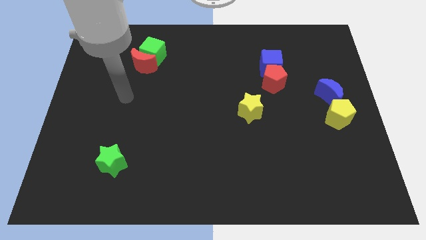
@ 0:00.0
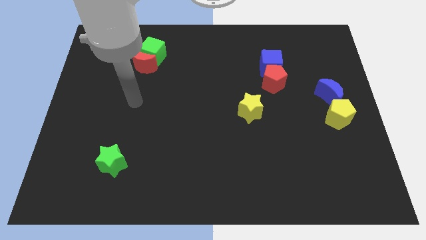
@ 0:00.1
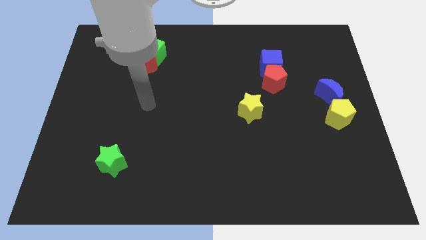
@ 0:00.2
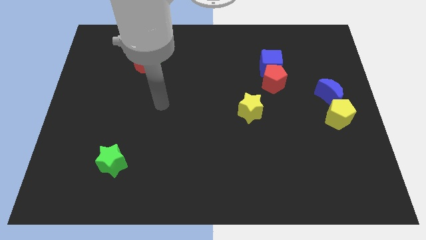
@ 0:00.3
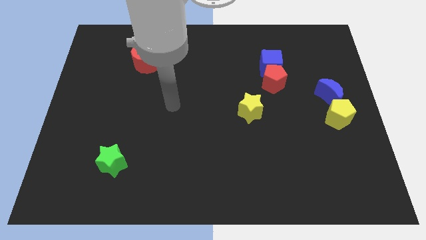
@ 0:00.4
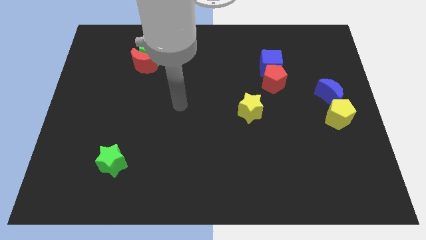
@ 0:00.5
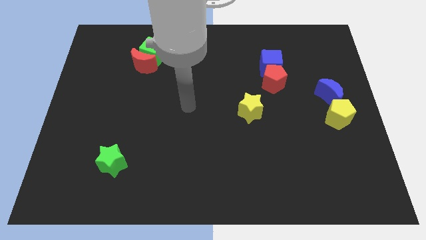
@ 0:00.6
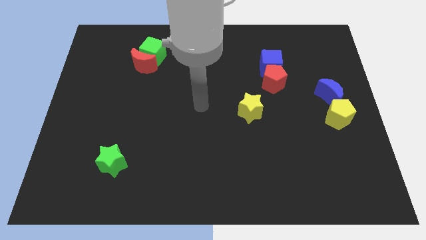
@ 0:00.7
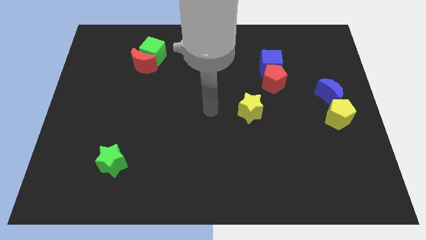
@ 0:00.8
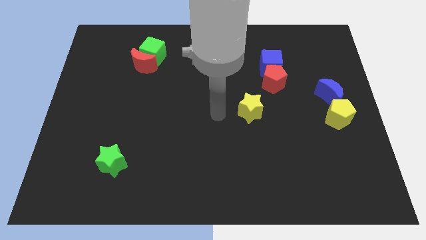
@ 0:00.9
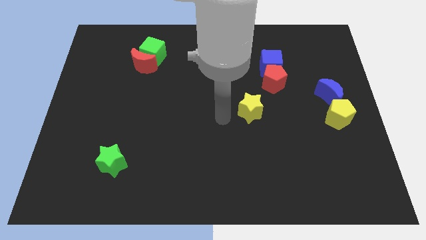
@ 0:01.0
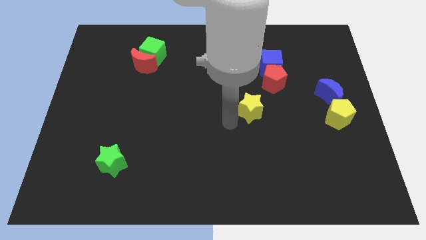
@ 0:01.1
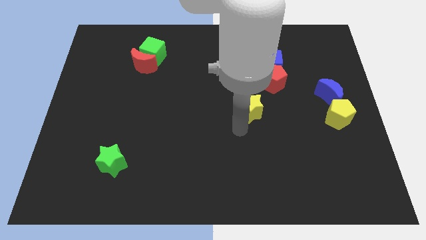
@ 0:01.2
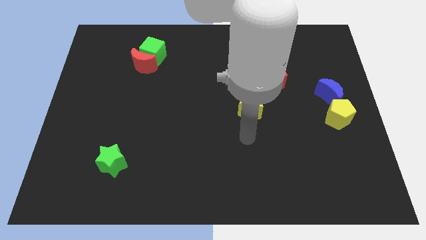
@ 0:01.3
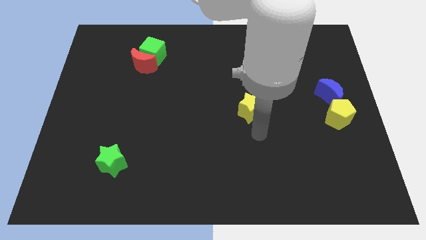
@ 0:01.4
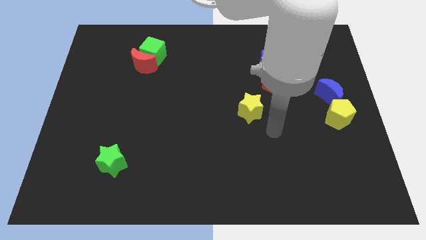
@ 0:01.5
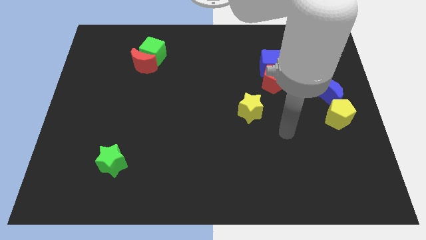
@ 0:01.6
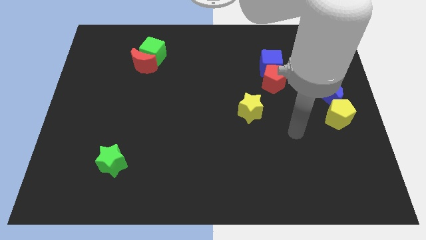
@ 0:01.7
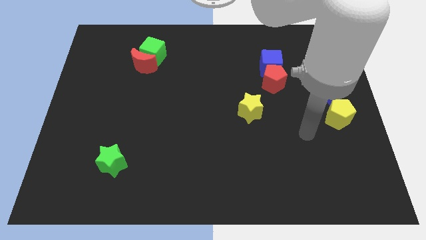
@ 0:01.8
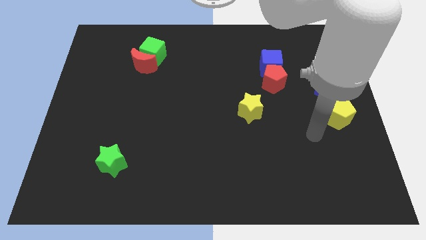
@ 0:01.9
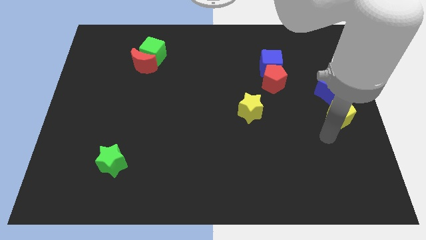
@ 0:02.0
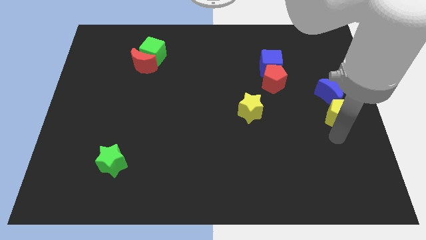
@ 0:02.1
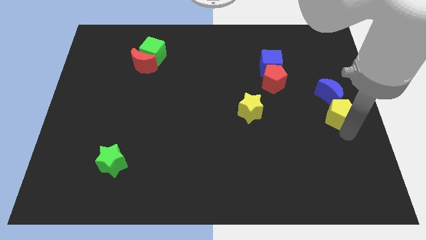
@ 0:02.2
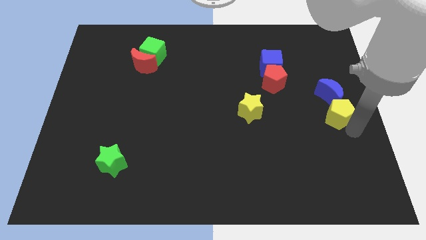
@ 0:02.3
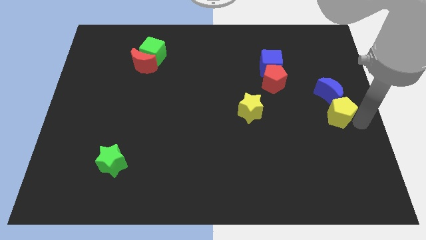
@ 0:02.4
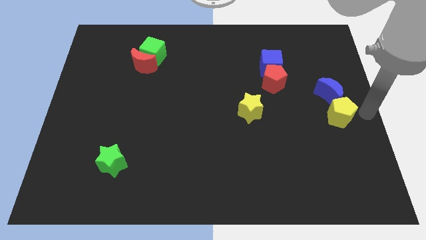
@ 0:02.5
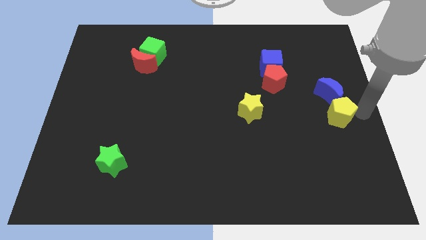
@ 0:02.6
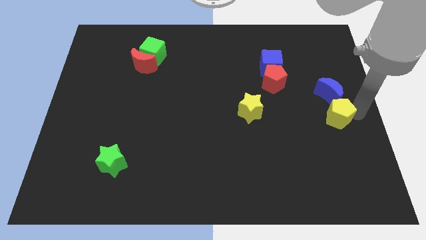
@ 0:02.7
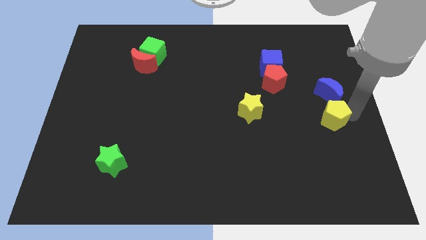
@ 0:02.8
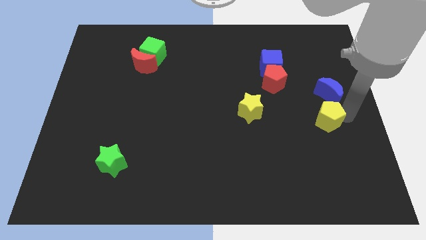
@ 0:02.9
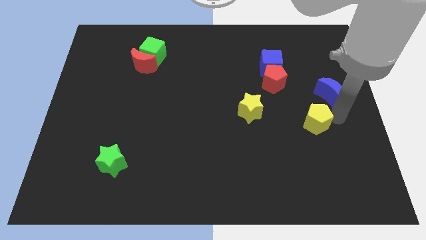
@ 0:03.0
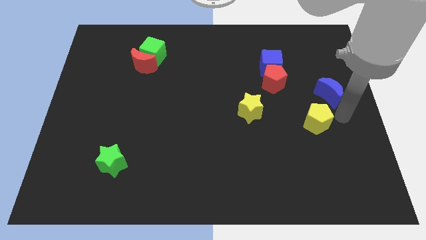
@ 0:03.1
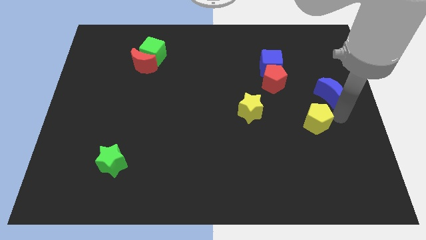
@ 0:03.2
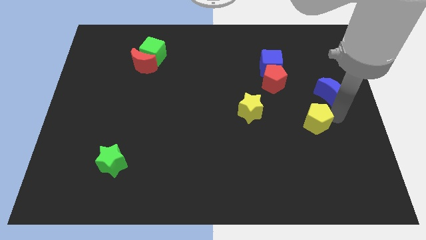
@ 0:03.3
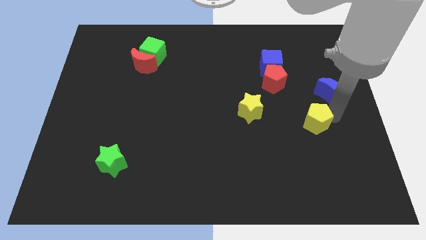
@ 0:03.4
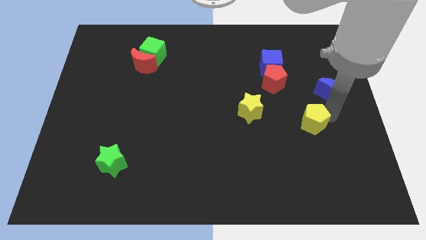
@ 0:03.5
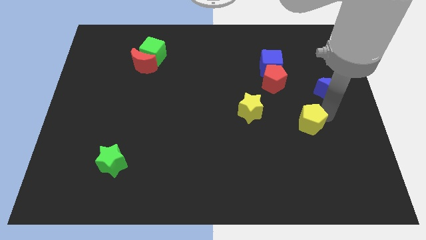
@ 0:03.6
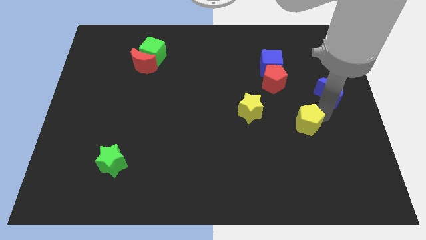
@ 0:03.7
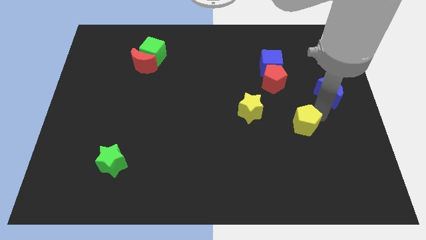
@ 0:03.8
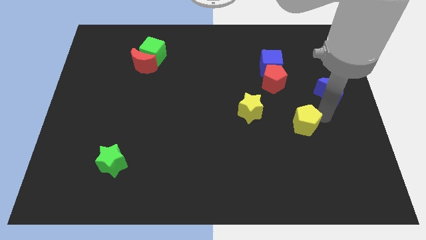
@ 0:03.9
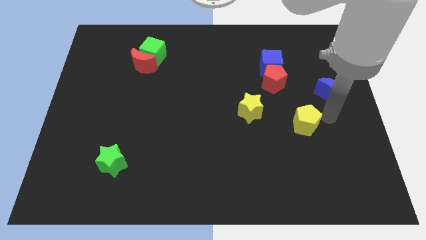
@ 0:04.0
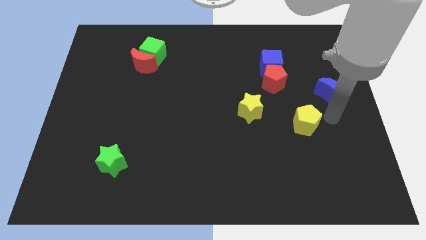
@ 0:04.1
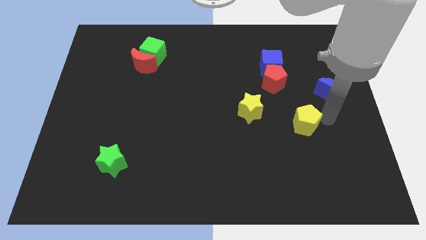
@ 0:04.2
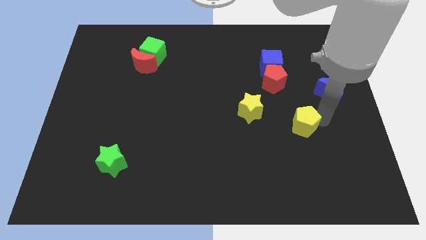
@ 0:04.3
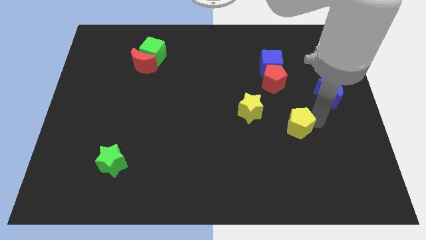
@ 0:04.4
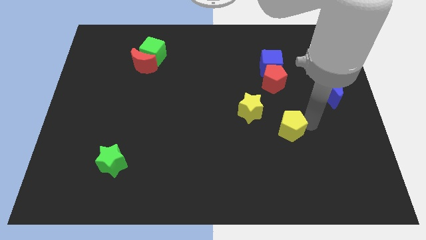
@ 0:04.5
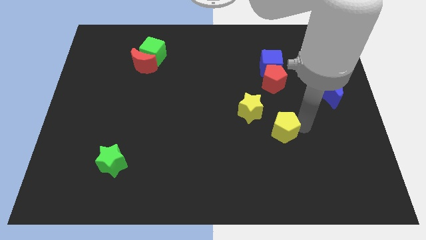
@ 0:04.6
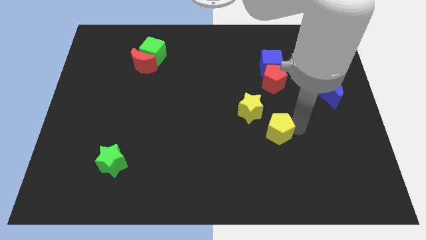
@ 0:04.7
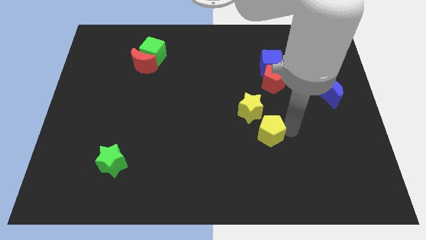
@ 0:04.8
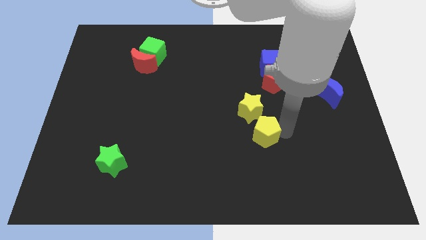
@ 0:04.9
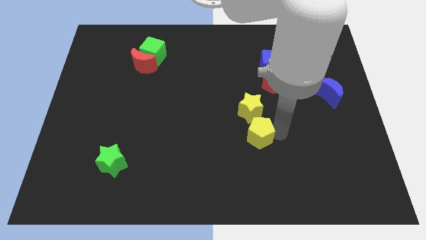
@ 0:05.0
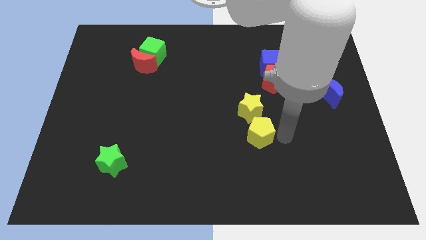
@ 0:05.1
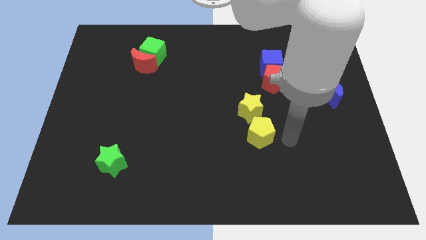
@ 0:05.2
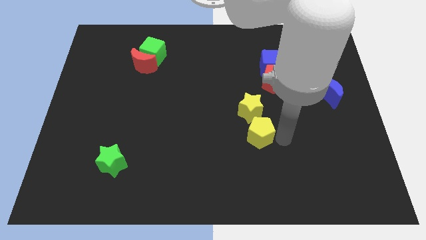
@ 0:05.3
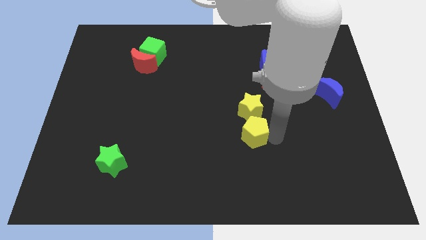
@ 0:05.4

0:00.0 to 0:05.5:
put the yellow pentagon to the bottom left of the yellow star

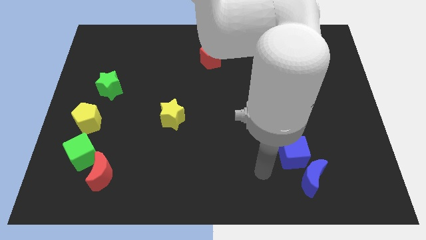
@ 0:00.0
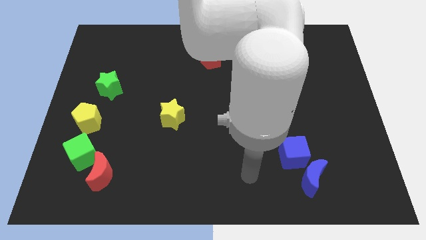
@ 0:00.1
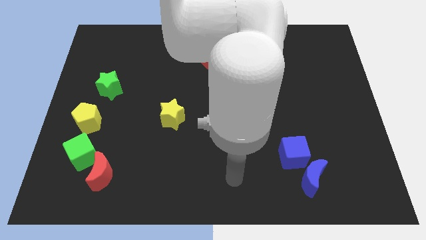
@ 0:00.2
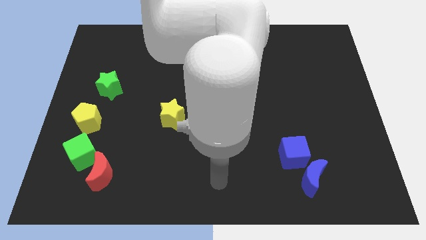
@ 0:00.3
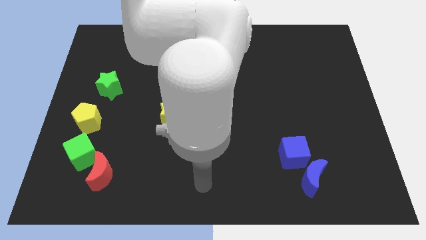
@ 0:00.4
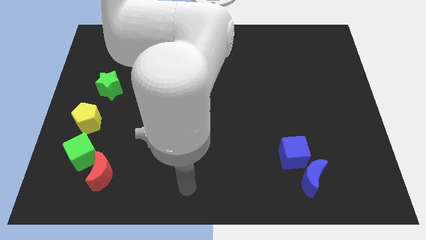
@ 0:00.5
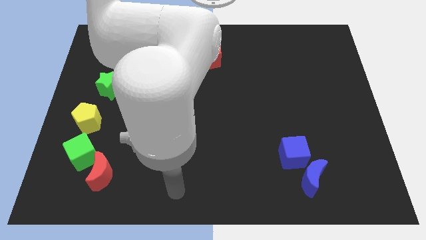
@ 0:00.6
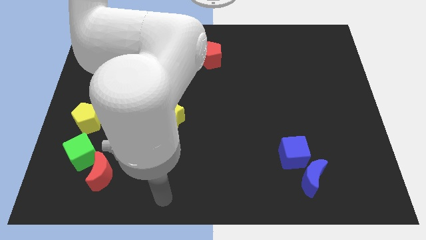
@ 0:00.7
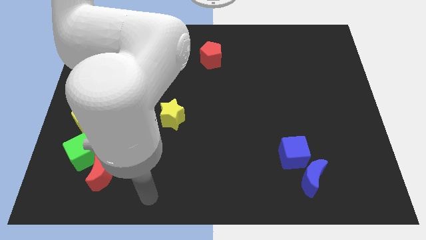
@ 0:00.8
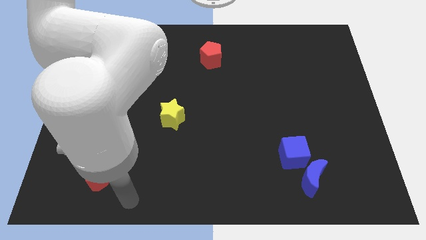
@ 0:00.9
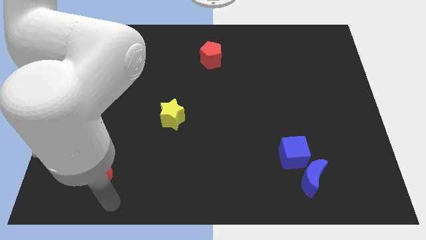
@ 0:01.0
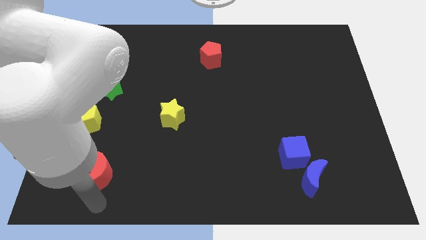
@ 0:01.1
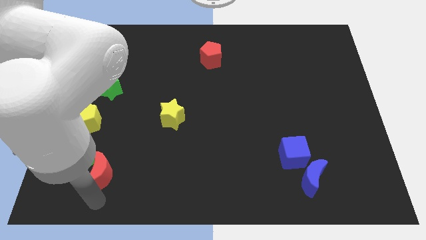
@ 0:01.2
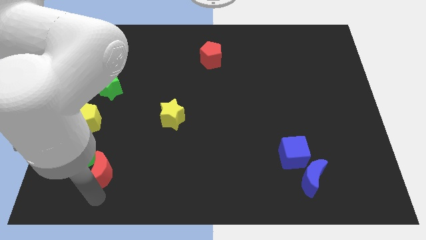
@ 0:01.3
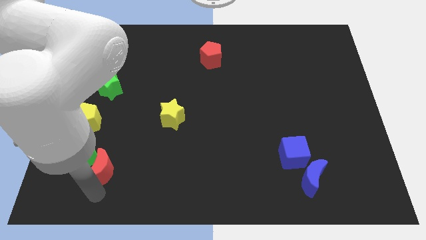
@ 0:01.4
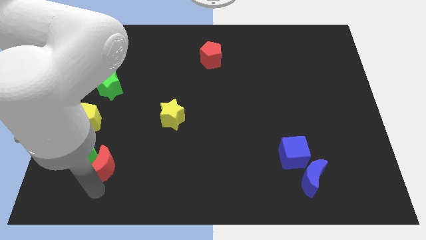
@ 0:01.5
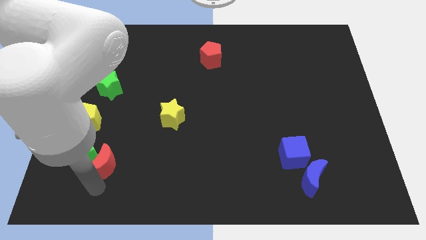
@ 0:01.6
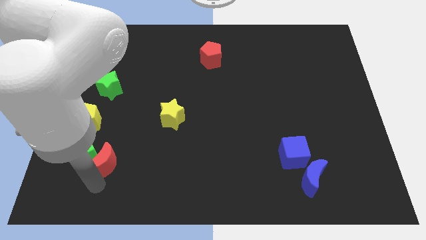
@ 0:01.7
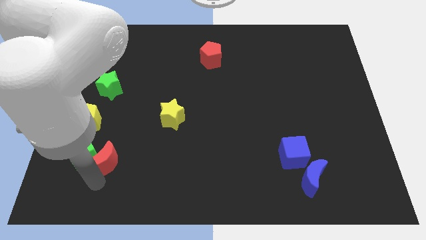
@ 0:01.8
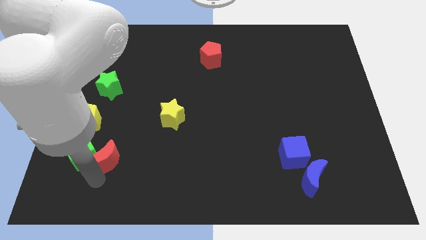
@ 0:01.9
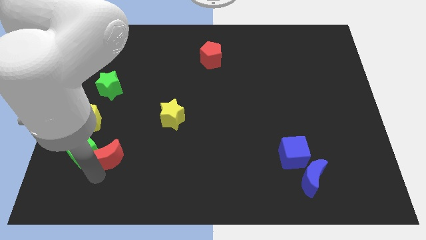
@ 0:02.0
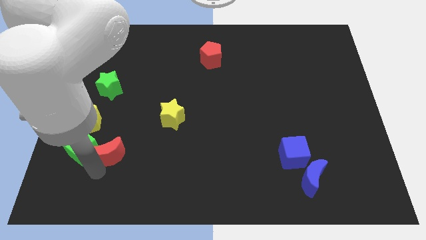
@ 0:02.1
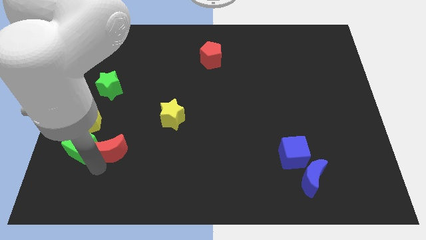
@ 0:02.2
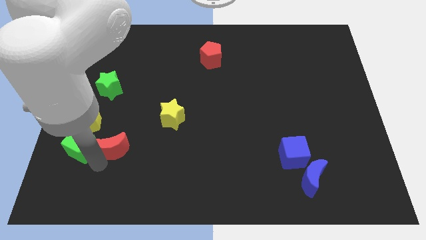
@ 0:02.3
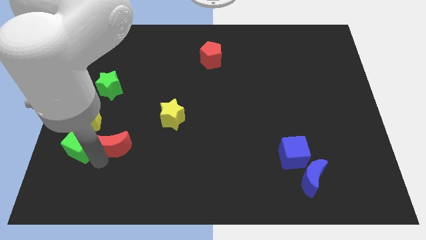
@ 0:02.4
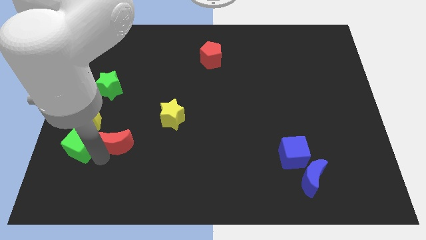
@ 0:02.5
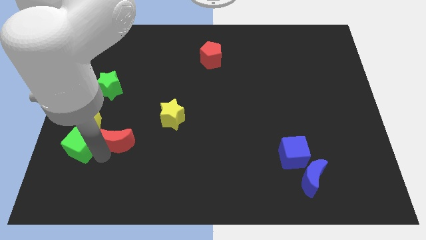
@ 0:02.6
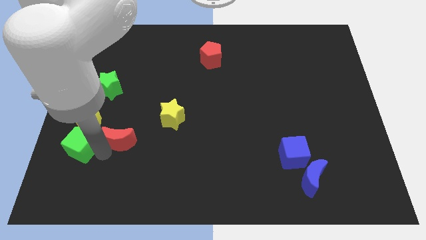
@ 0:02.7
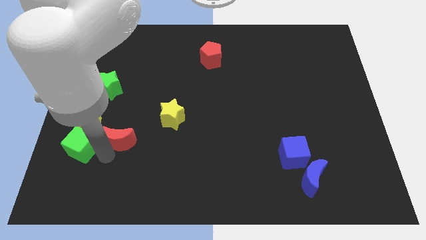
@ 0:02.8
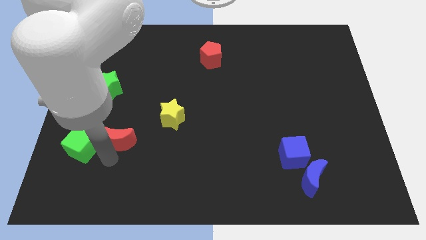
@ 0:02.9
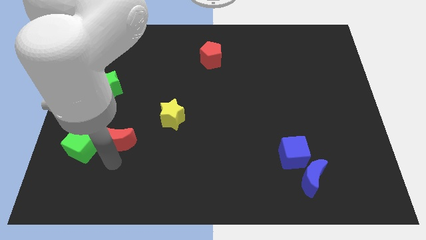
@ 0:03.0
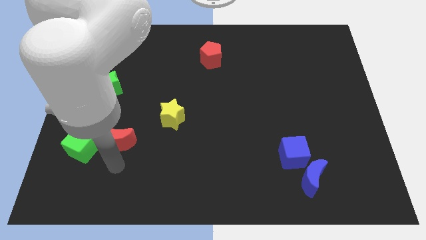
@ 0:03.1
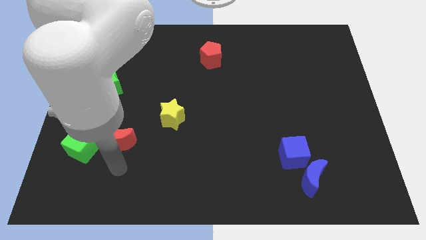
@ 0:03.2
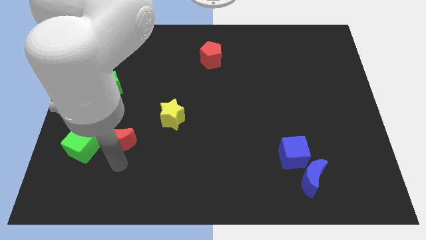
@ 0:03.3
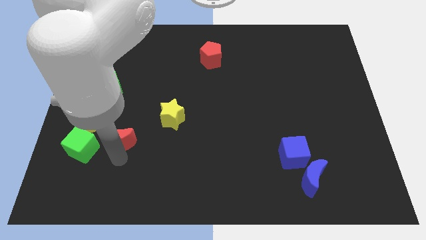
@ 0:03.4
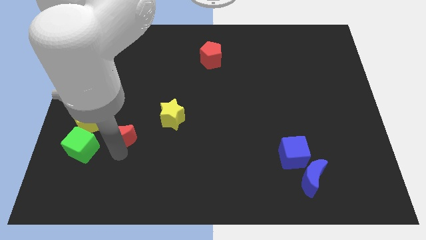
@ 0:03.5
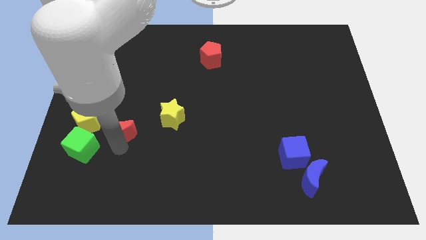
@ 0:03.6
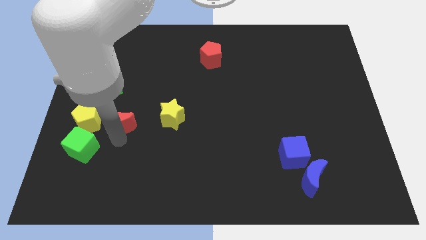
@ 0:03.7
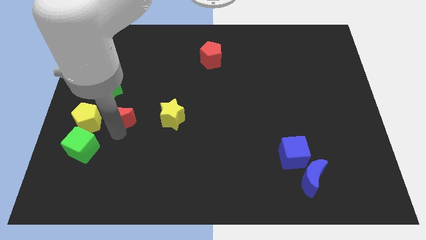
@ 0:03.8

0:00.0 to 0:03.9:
slide the red moon to the bottom right of the green star
